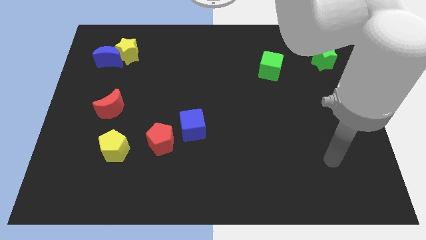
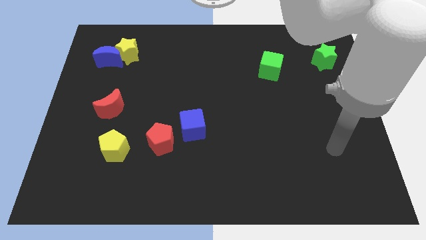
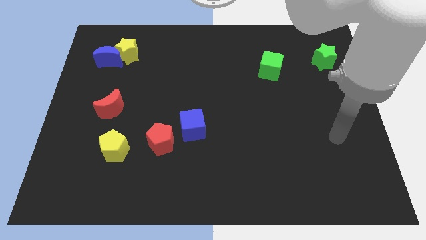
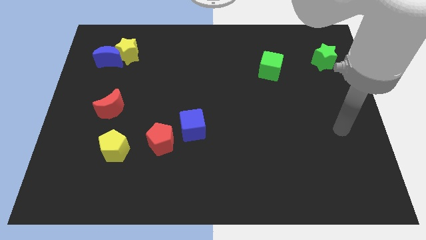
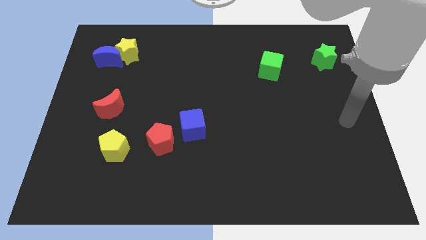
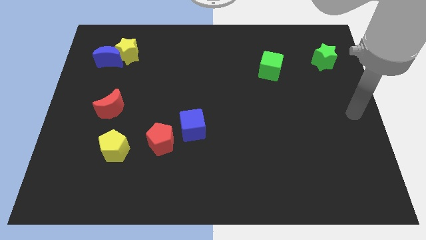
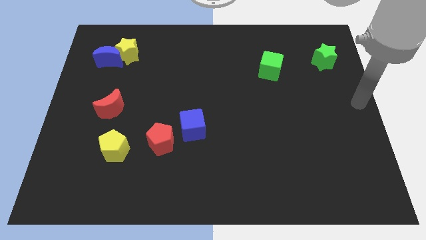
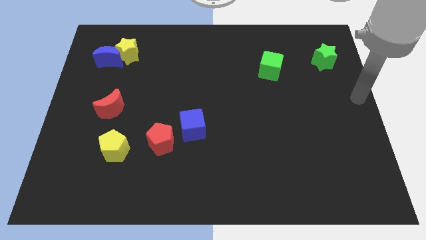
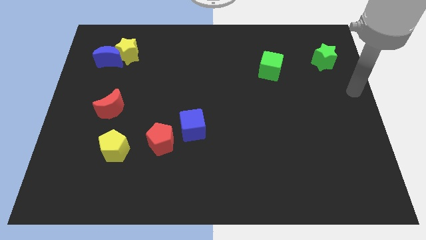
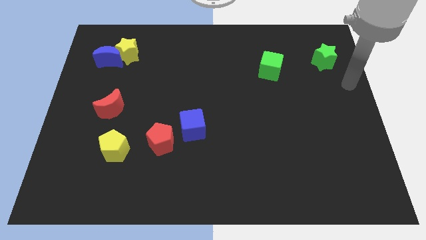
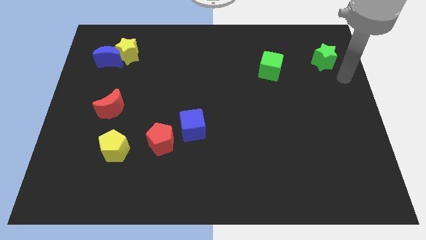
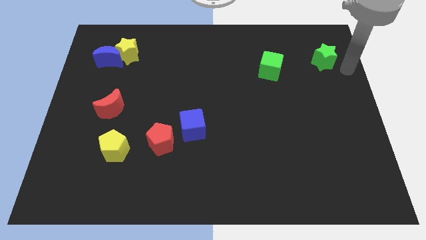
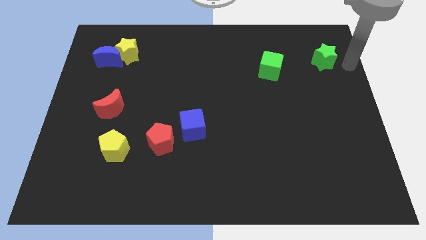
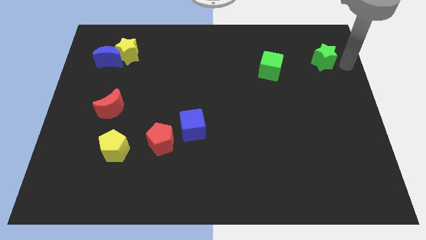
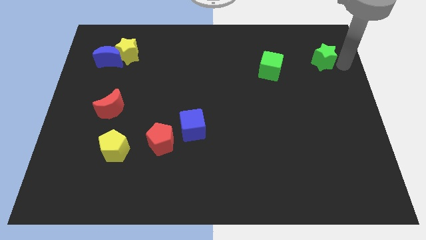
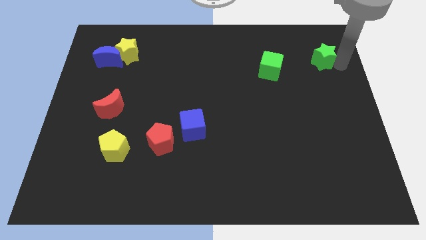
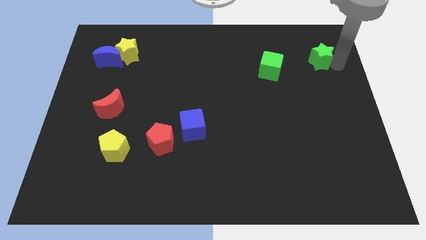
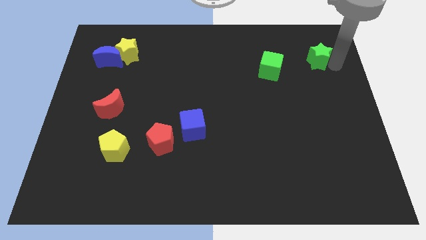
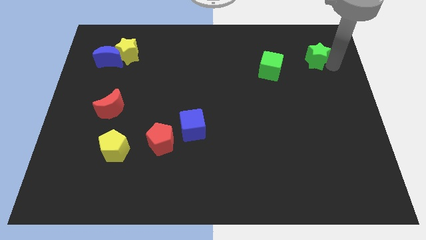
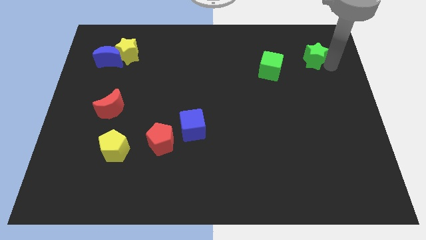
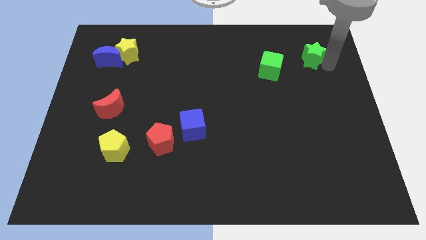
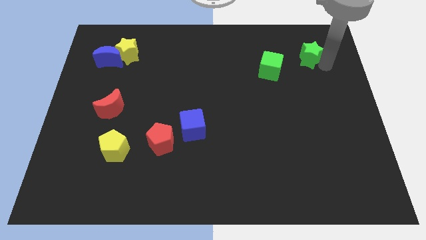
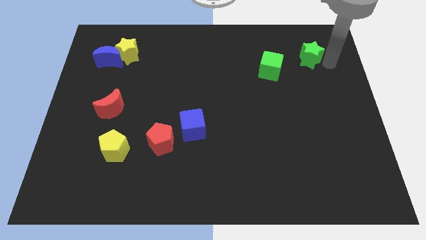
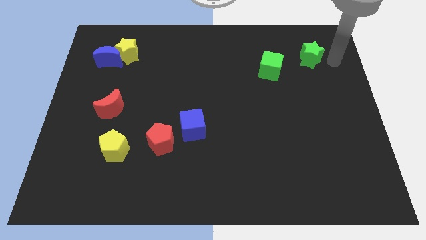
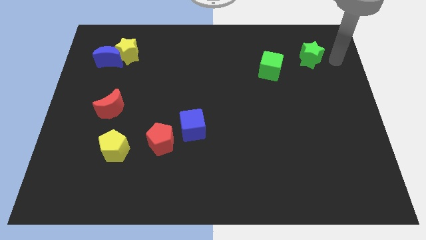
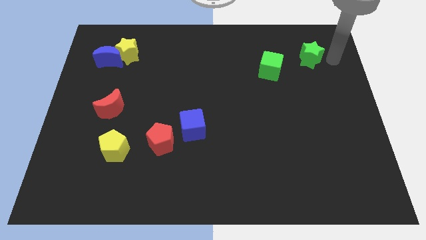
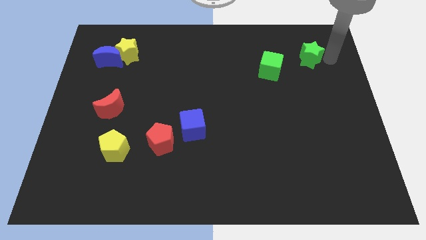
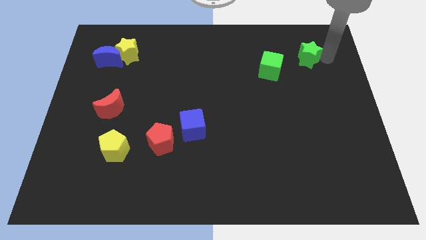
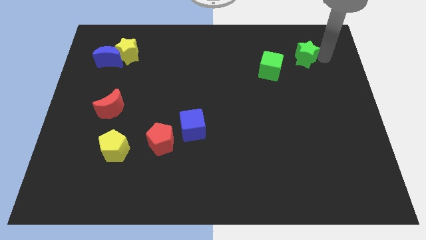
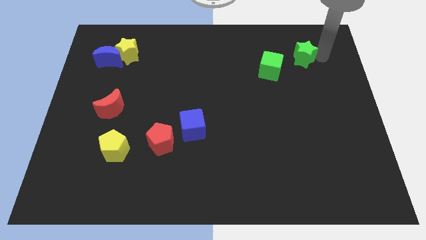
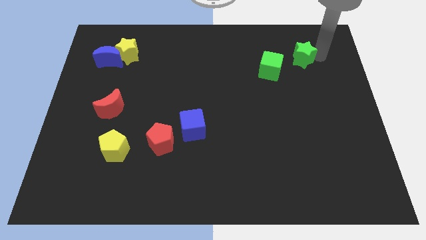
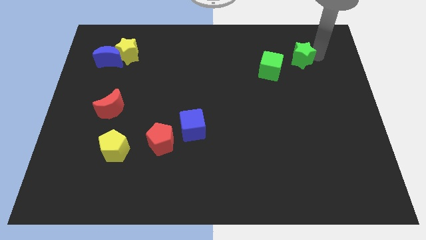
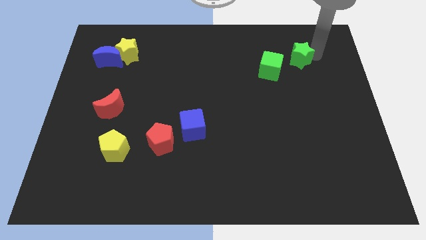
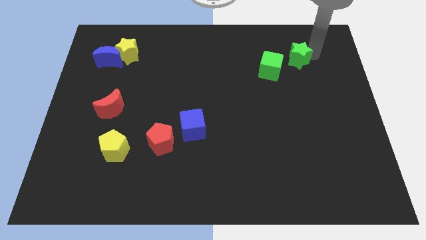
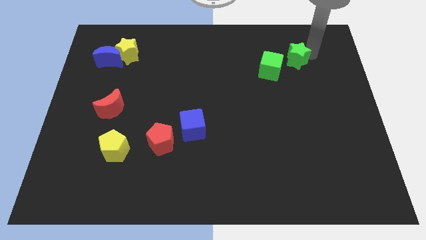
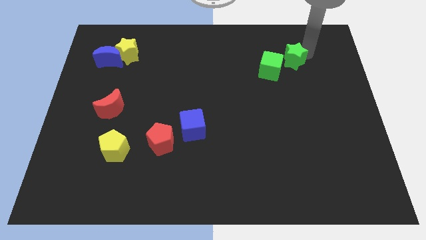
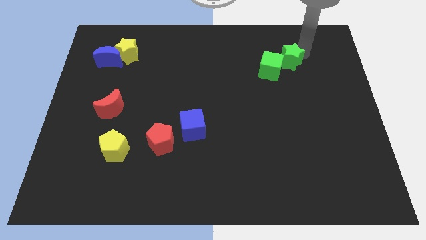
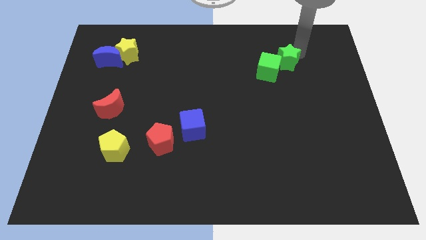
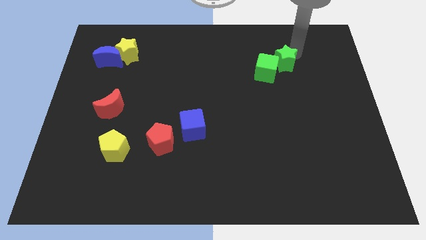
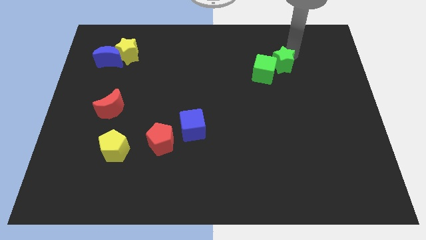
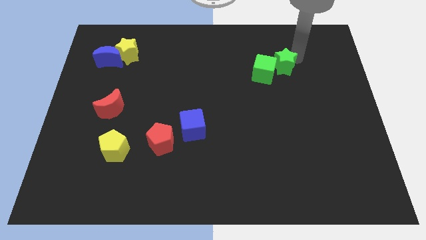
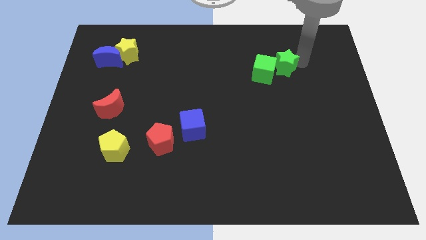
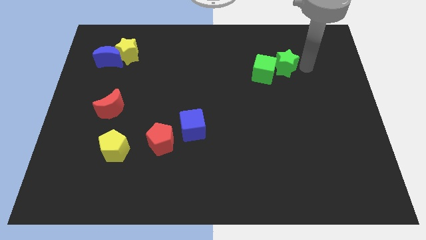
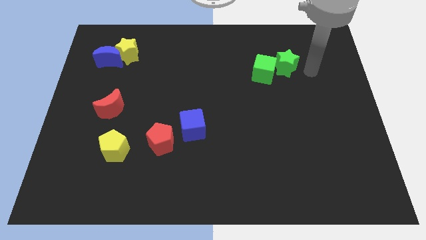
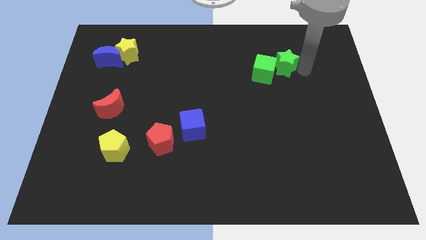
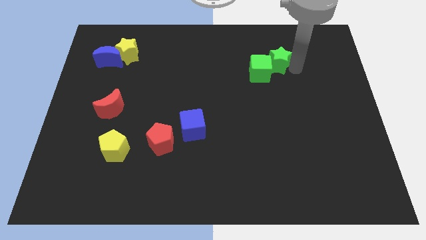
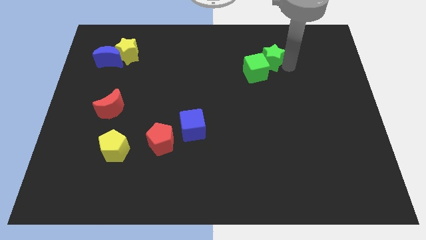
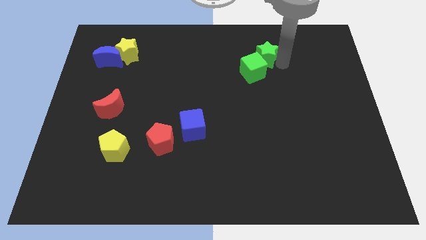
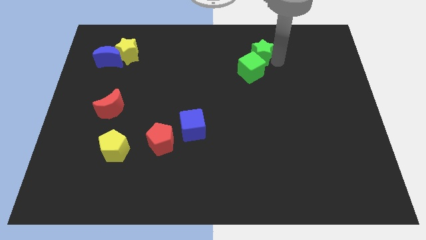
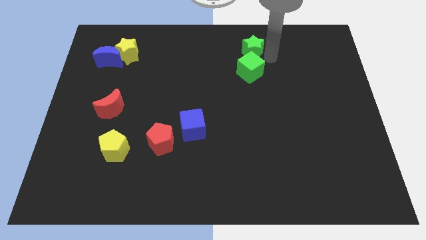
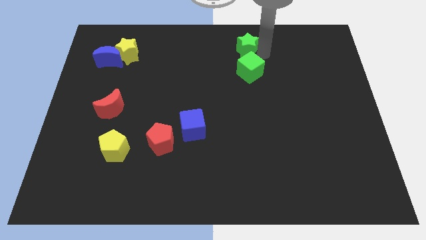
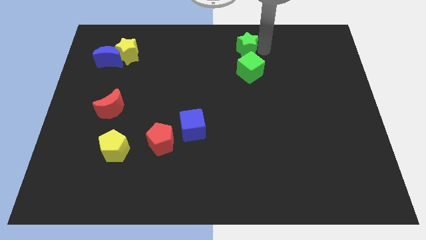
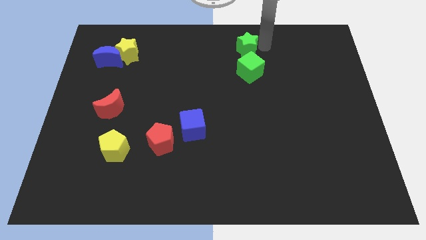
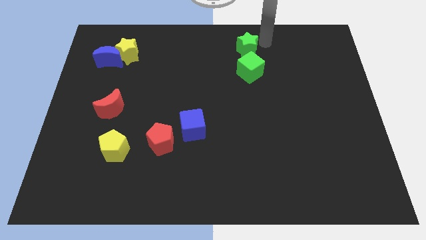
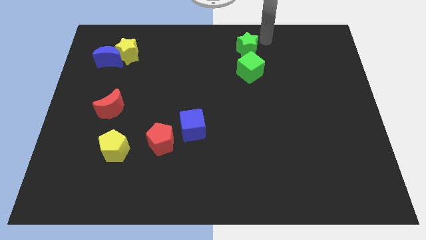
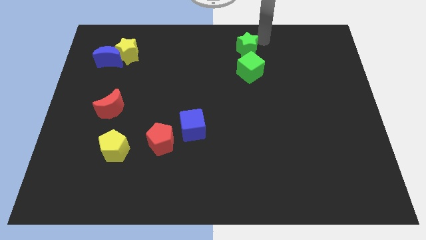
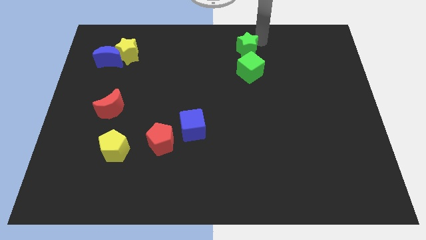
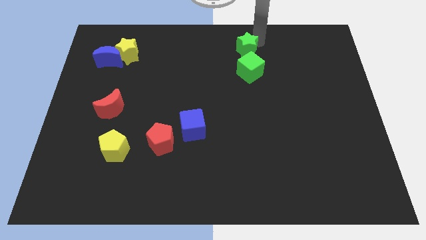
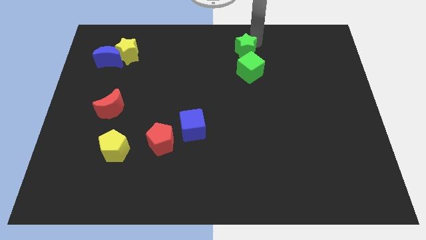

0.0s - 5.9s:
move the green star to the left

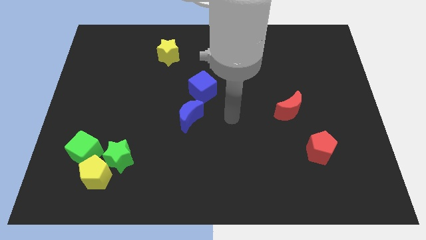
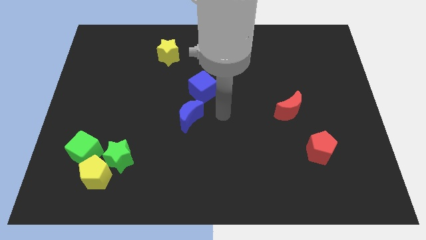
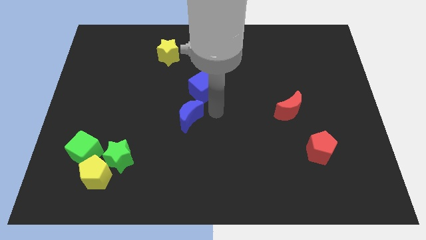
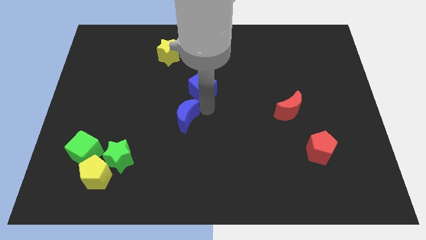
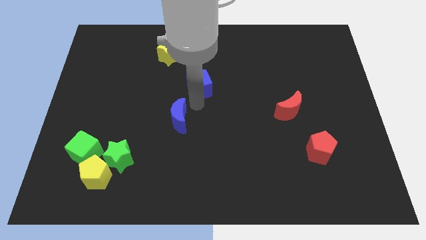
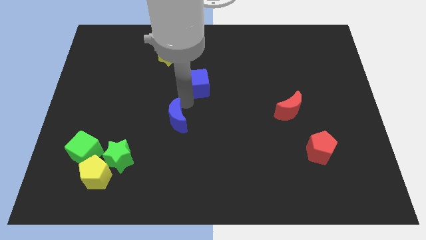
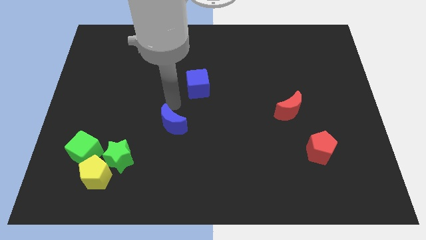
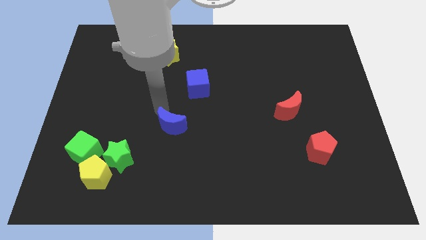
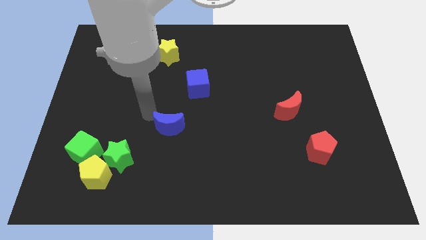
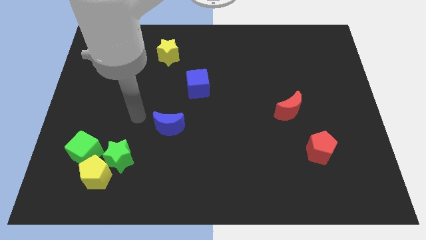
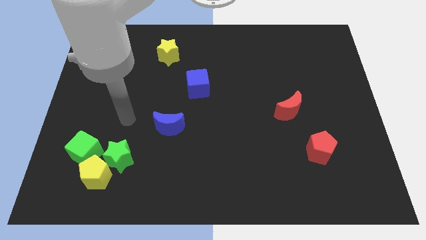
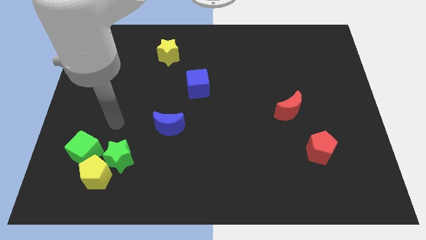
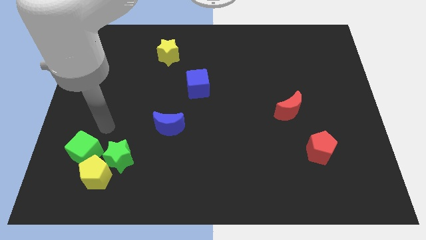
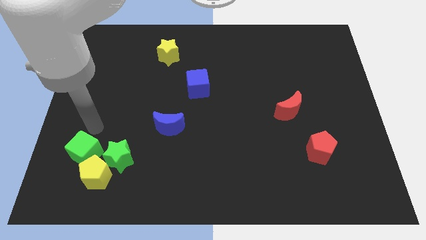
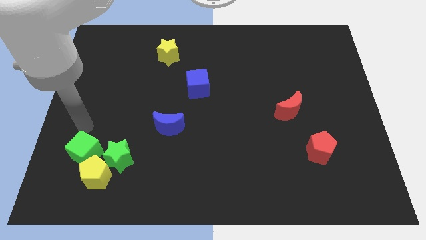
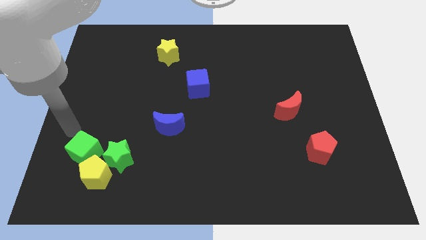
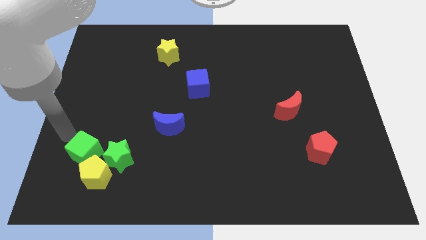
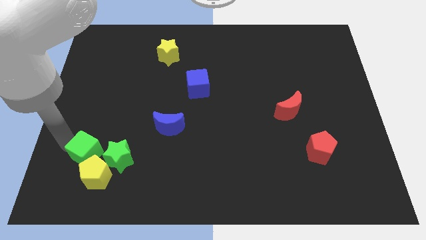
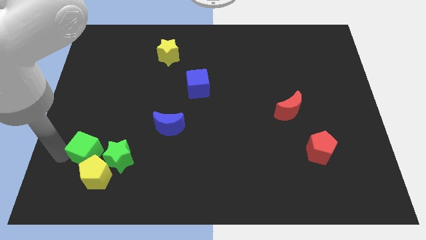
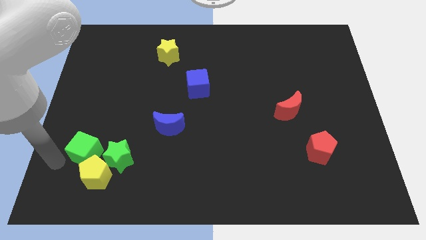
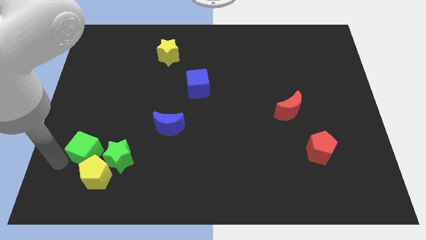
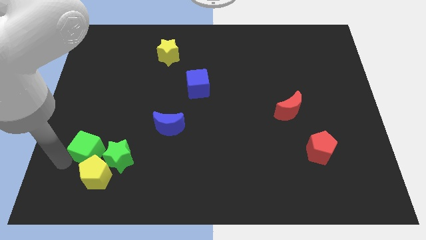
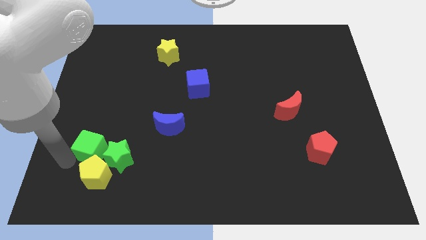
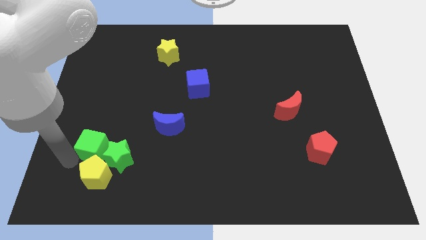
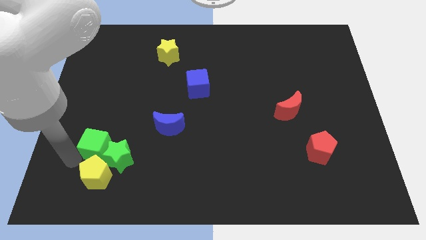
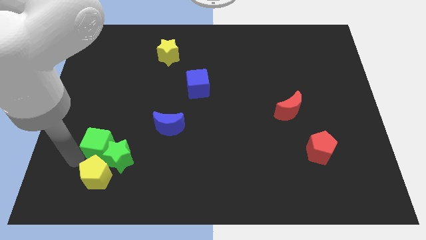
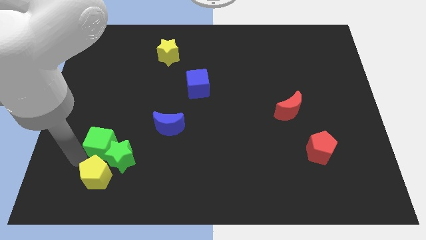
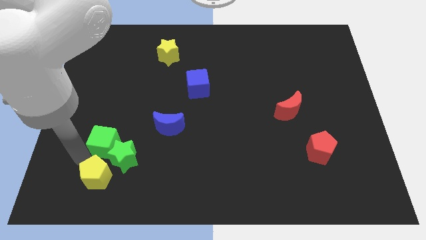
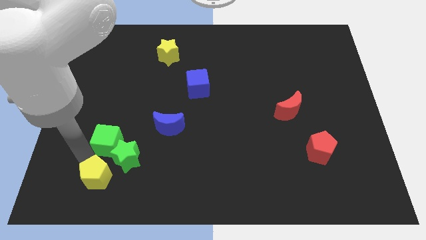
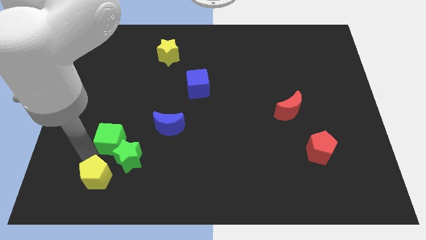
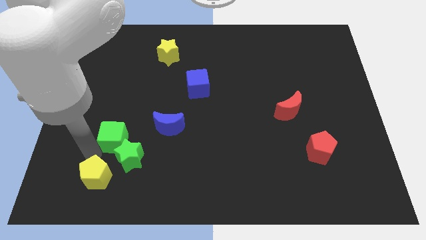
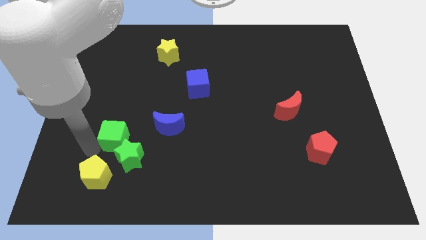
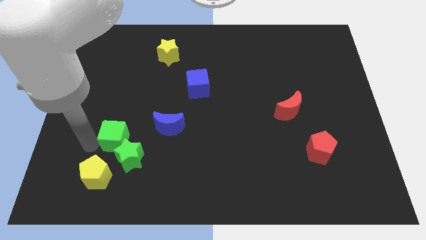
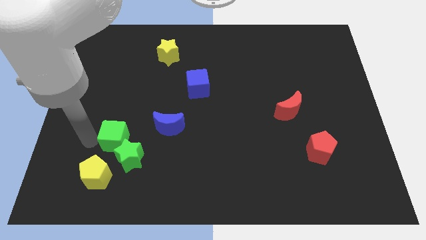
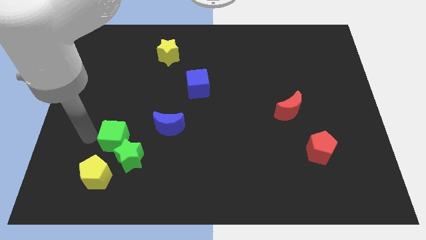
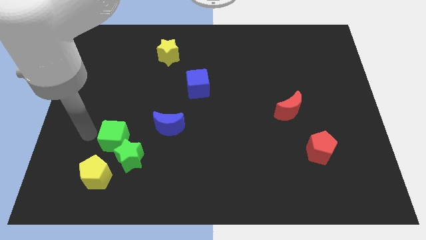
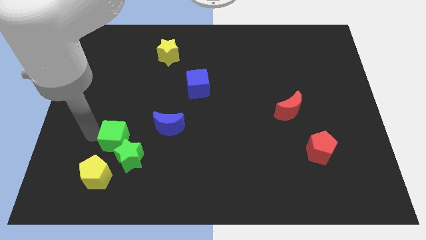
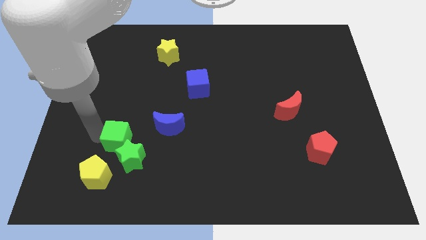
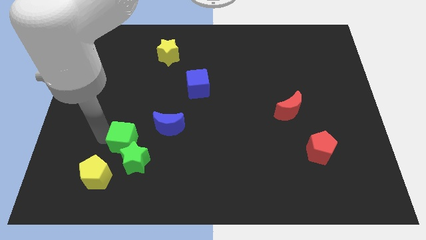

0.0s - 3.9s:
slide the green cube to the right a little bit
